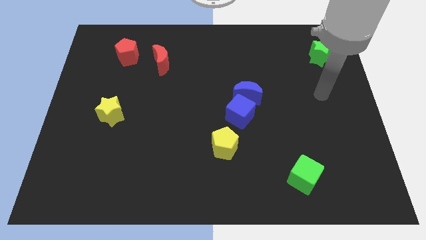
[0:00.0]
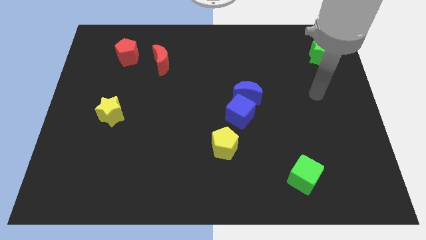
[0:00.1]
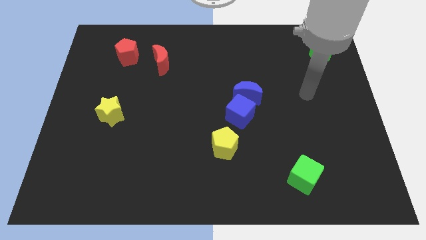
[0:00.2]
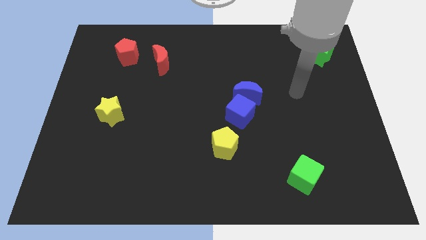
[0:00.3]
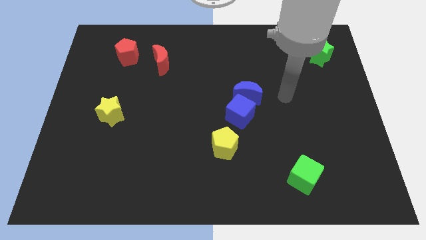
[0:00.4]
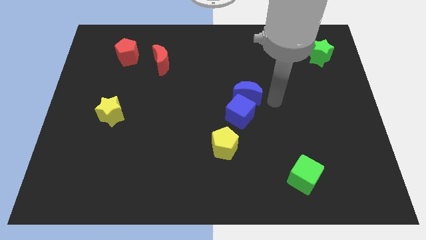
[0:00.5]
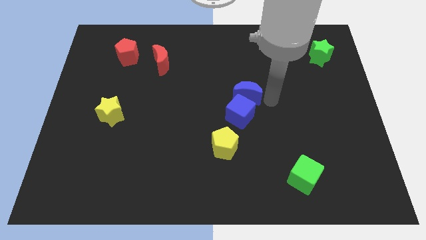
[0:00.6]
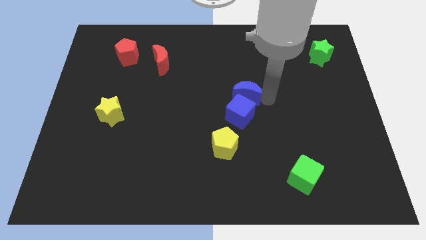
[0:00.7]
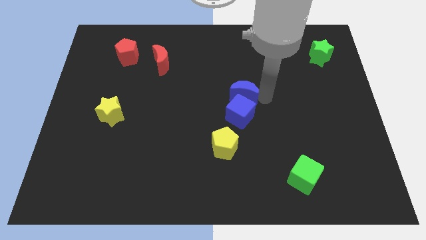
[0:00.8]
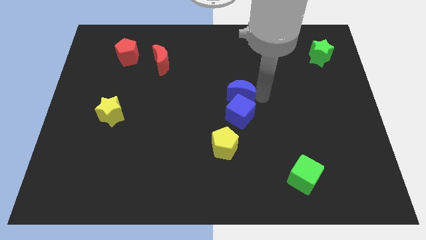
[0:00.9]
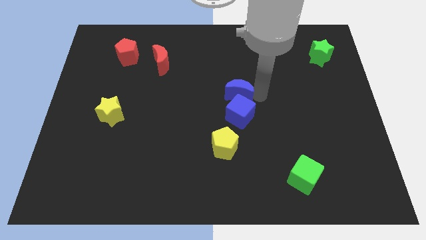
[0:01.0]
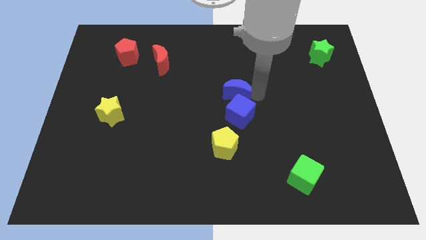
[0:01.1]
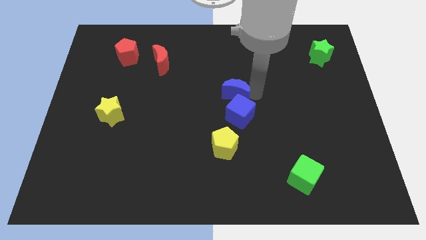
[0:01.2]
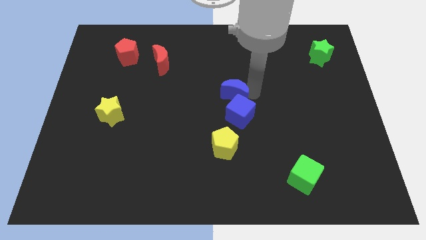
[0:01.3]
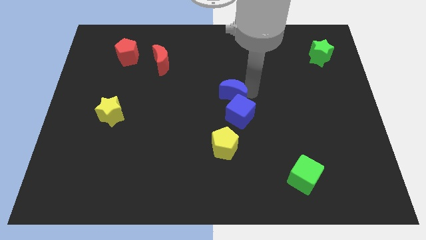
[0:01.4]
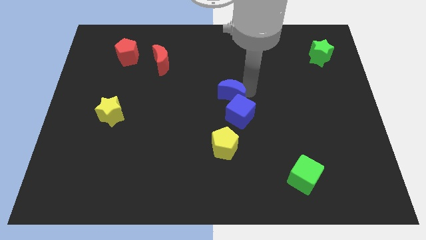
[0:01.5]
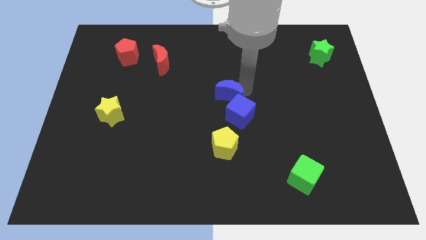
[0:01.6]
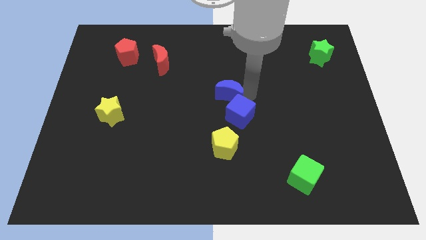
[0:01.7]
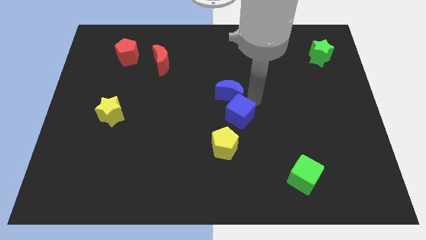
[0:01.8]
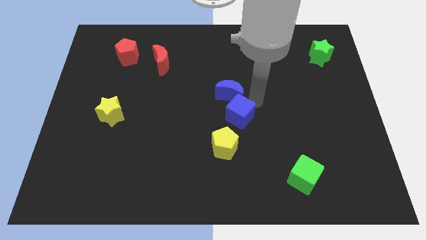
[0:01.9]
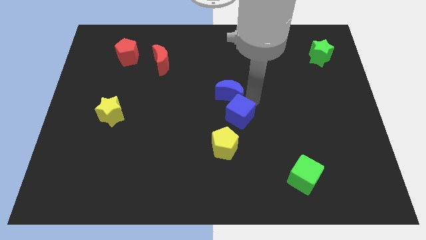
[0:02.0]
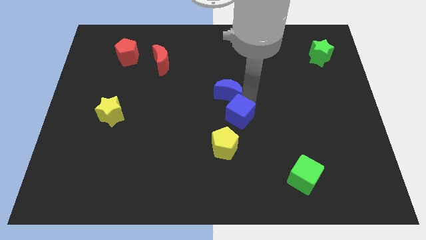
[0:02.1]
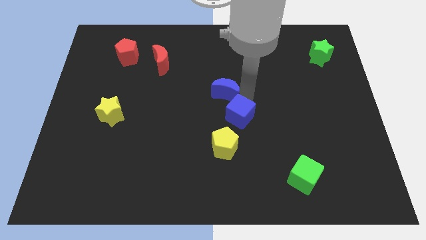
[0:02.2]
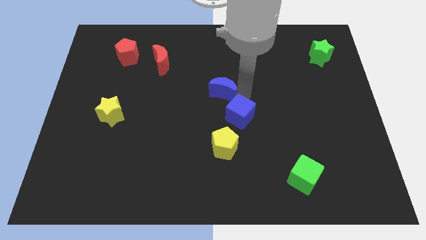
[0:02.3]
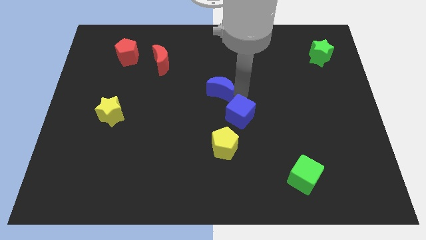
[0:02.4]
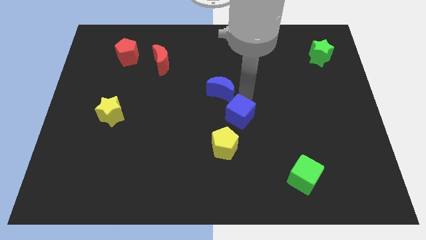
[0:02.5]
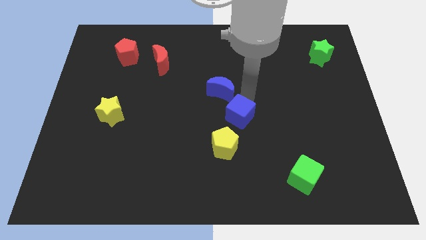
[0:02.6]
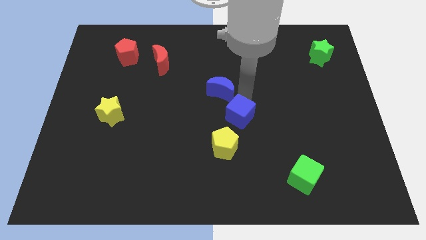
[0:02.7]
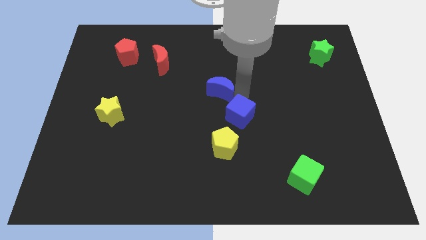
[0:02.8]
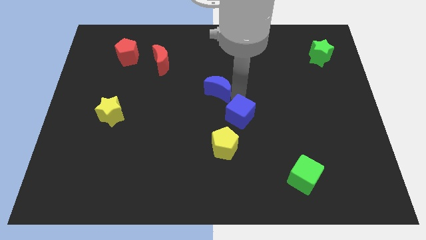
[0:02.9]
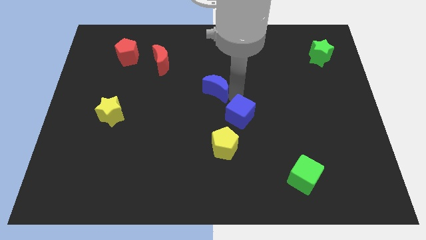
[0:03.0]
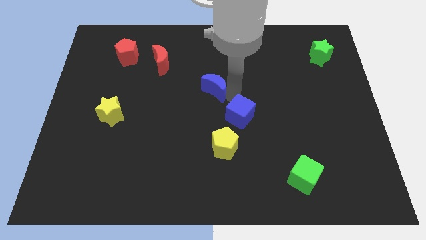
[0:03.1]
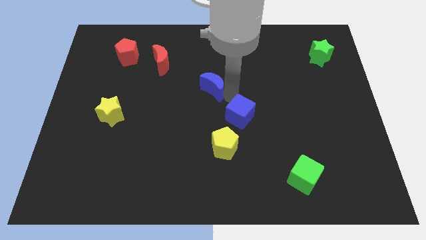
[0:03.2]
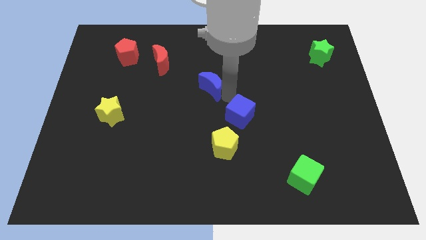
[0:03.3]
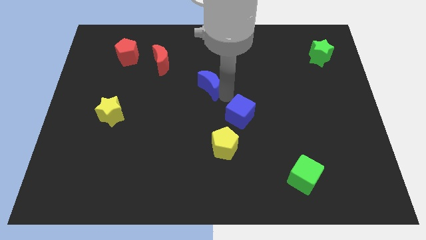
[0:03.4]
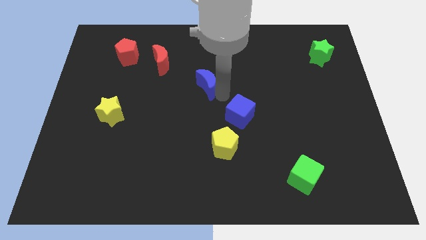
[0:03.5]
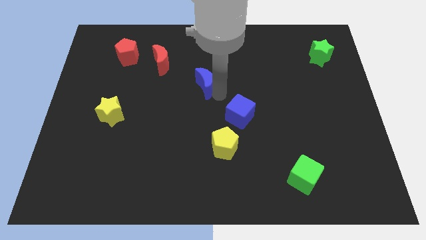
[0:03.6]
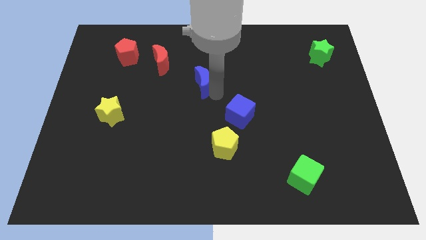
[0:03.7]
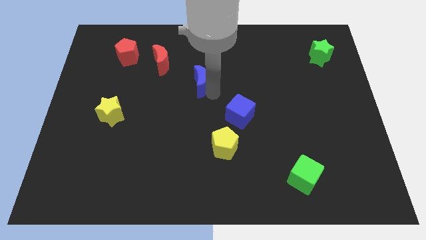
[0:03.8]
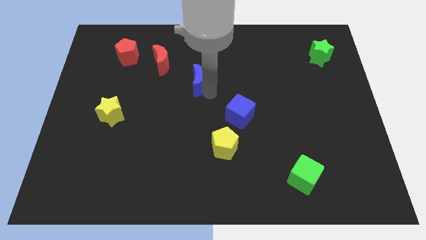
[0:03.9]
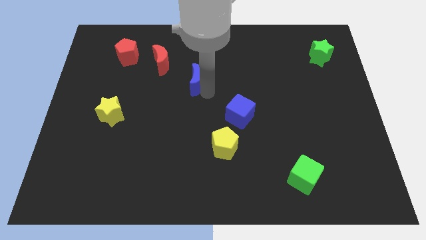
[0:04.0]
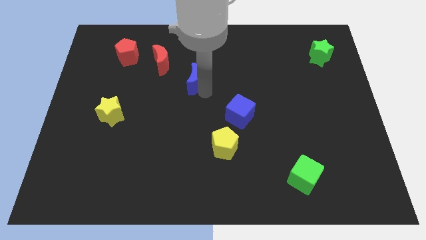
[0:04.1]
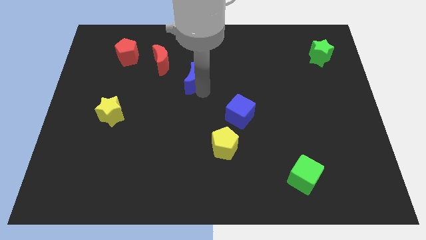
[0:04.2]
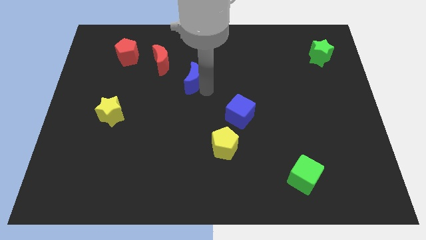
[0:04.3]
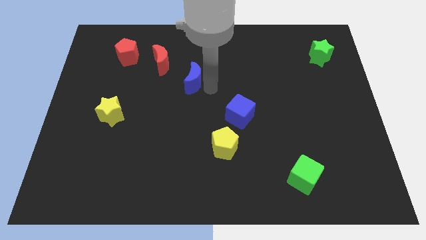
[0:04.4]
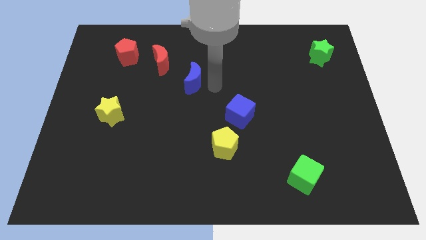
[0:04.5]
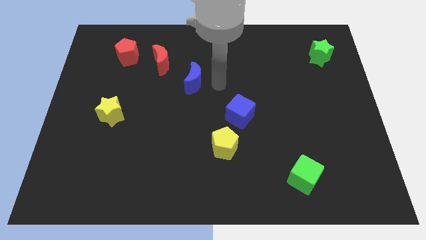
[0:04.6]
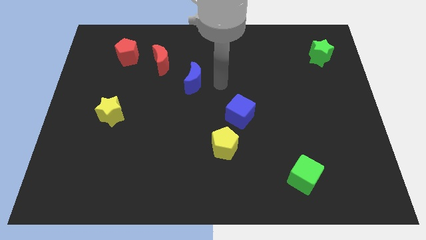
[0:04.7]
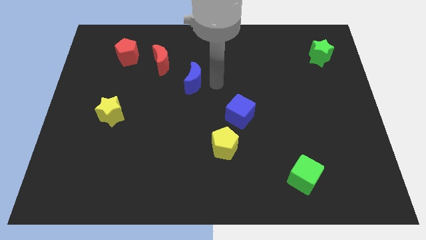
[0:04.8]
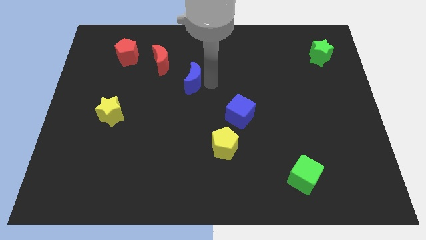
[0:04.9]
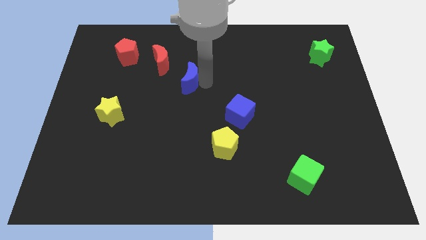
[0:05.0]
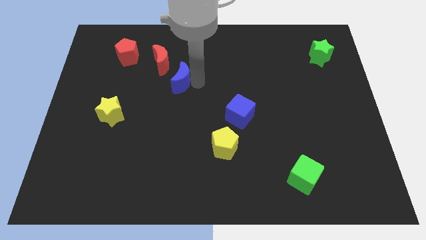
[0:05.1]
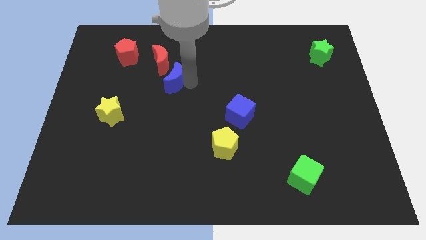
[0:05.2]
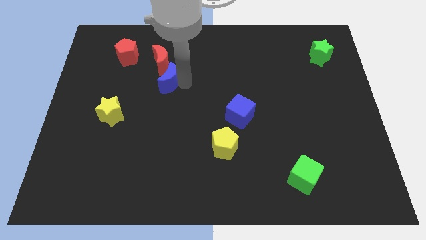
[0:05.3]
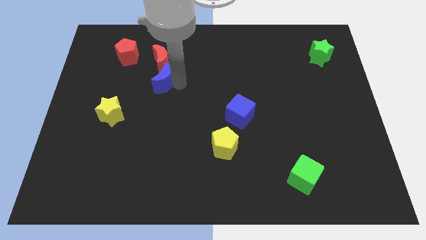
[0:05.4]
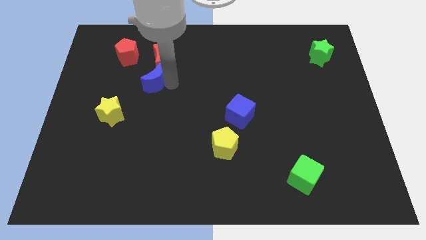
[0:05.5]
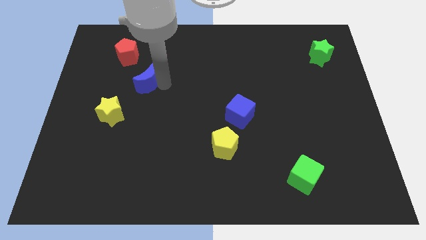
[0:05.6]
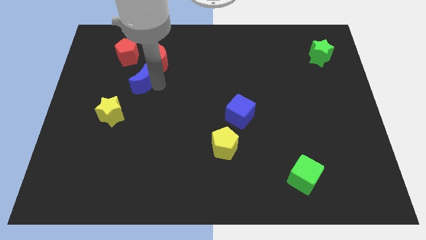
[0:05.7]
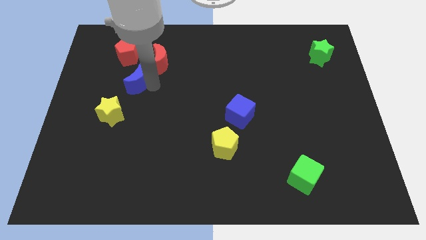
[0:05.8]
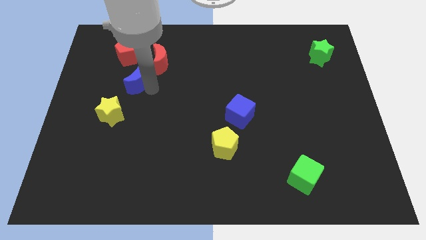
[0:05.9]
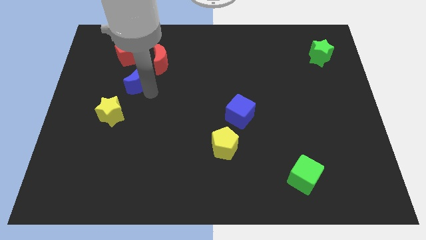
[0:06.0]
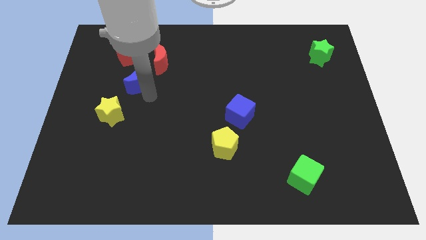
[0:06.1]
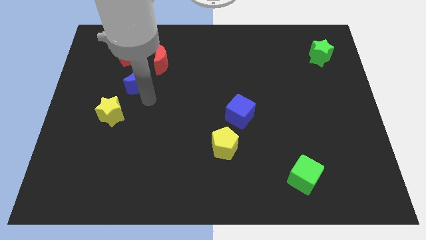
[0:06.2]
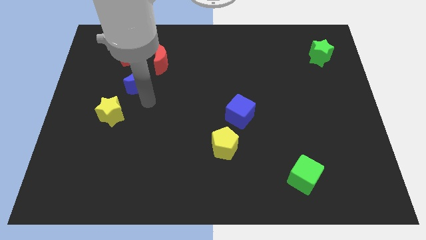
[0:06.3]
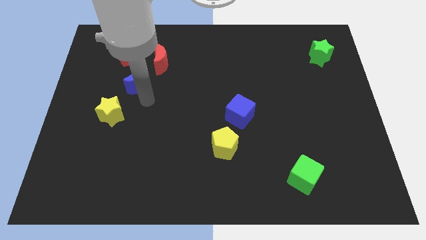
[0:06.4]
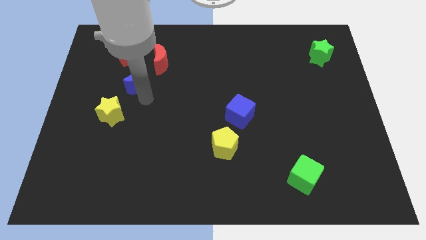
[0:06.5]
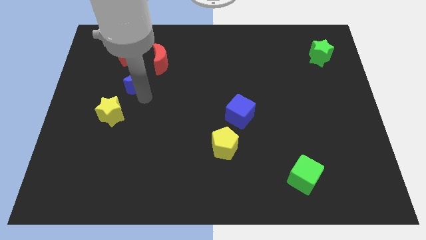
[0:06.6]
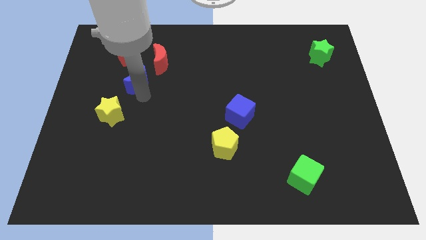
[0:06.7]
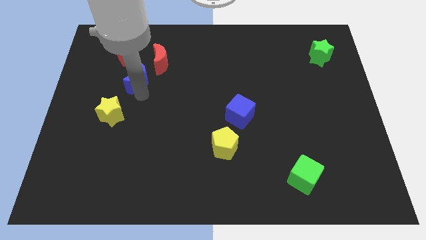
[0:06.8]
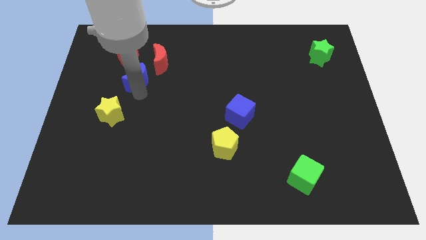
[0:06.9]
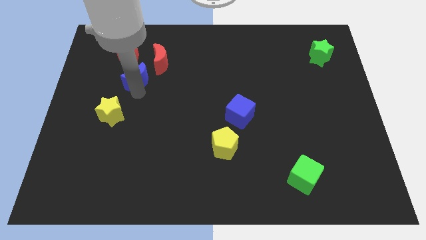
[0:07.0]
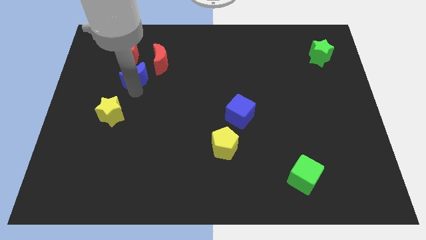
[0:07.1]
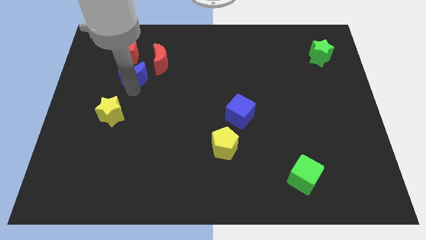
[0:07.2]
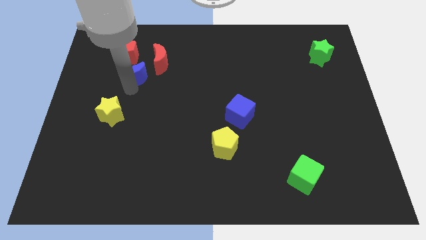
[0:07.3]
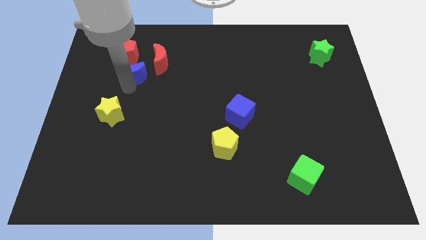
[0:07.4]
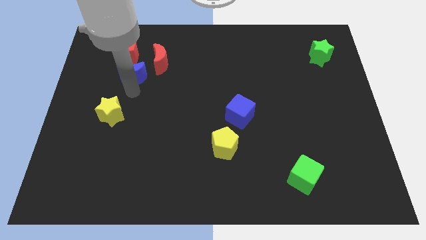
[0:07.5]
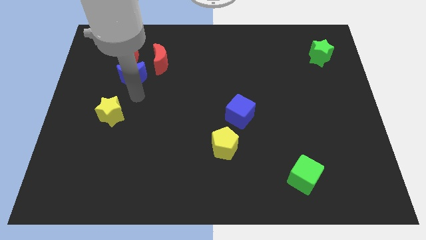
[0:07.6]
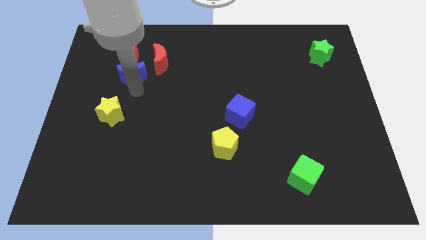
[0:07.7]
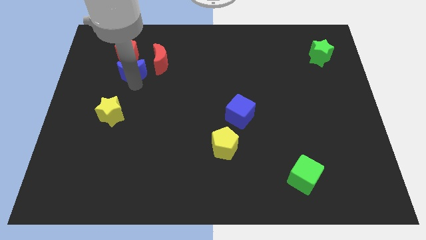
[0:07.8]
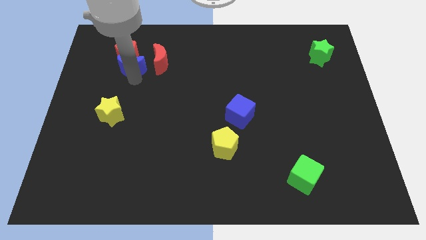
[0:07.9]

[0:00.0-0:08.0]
slide the blue moon close to the red pentagon
